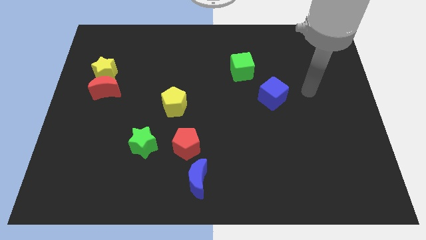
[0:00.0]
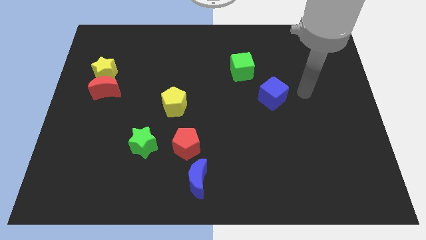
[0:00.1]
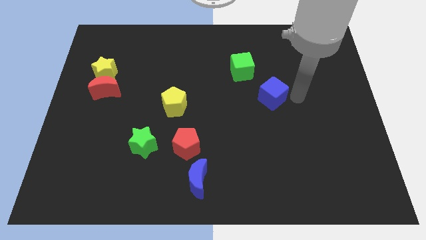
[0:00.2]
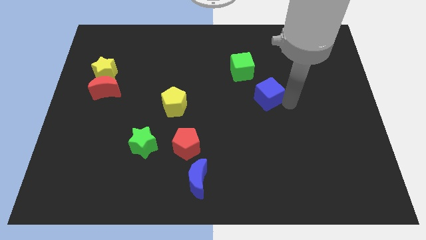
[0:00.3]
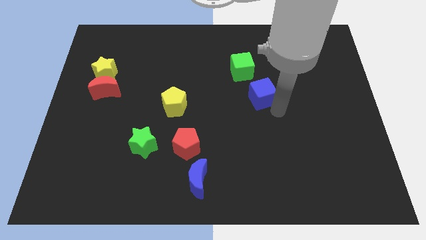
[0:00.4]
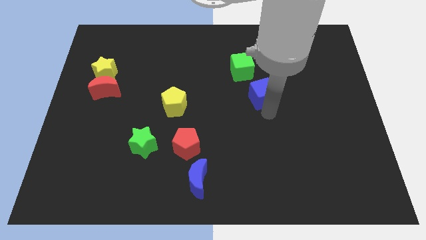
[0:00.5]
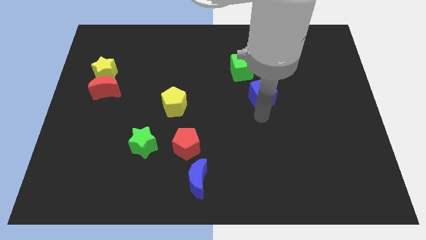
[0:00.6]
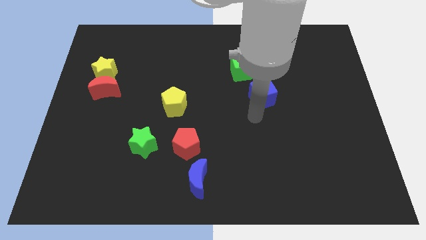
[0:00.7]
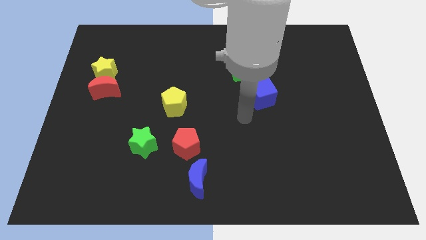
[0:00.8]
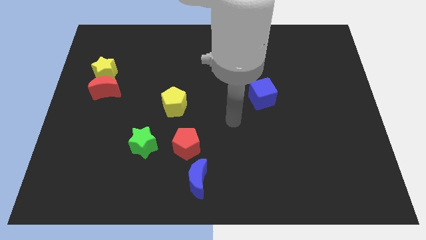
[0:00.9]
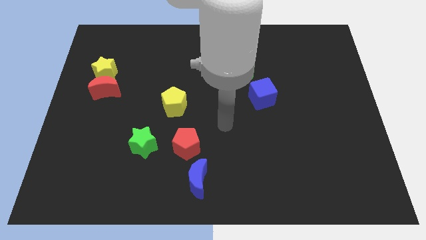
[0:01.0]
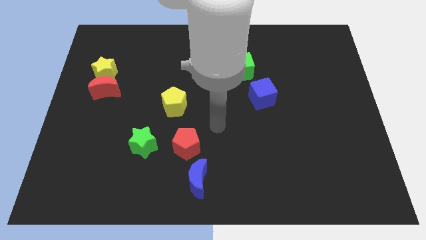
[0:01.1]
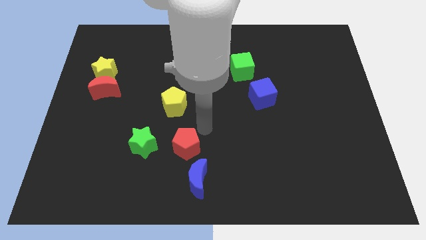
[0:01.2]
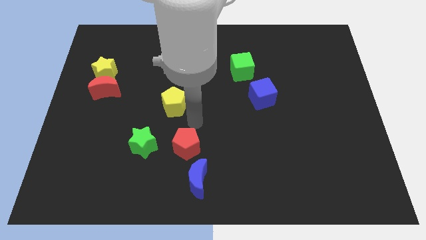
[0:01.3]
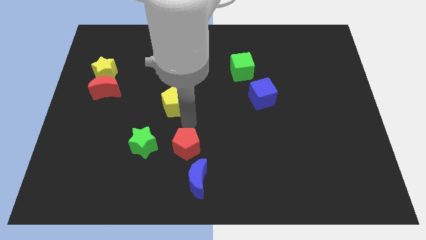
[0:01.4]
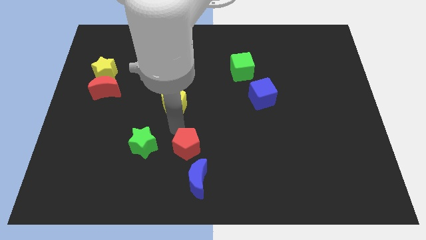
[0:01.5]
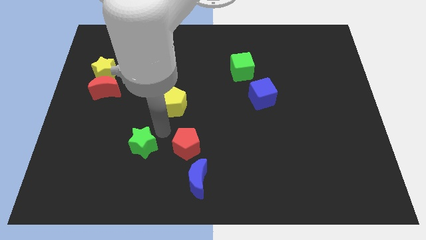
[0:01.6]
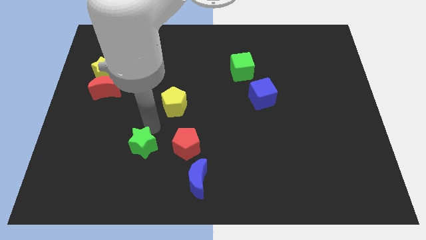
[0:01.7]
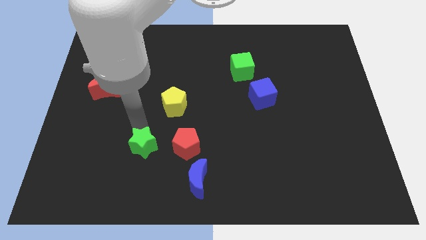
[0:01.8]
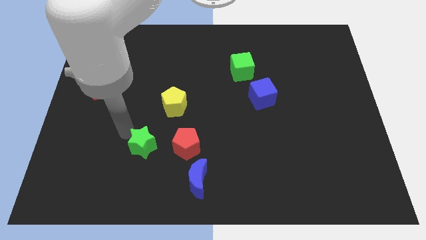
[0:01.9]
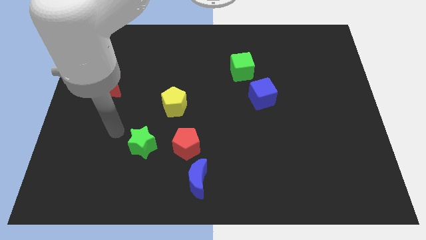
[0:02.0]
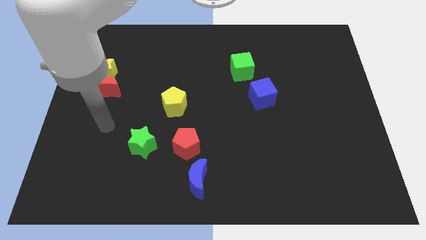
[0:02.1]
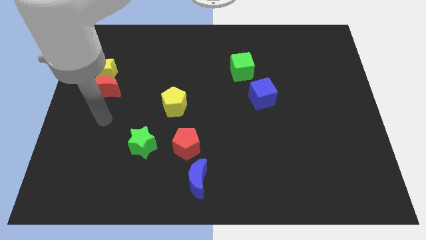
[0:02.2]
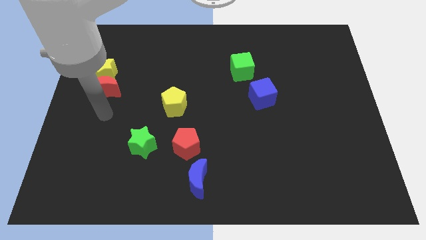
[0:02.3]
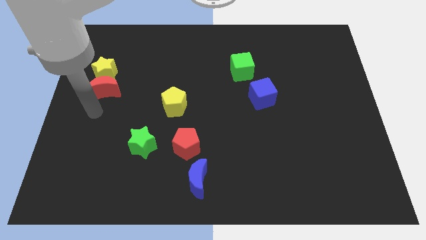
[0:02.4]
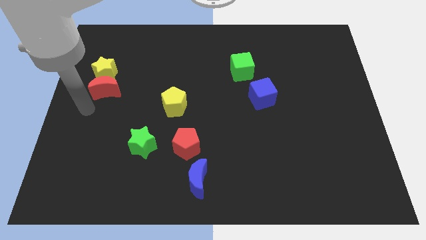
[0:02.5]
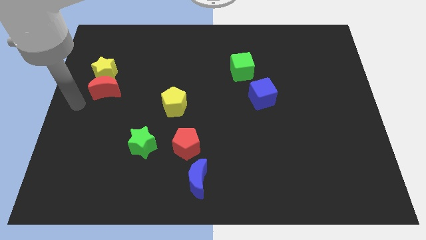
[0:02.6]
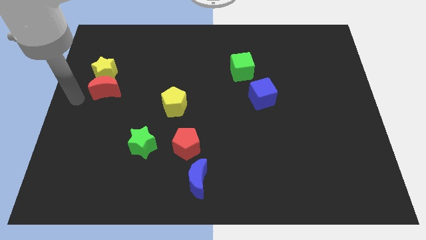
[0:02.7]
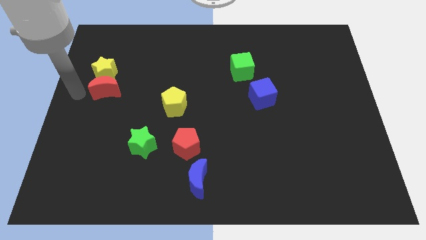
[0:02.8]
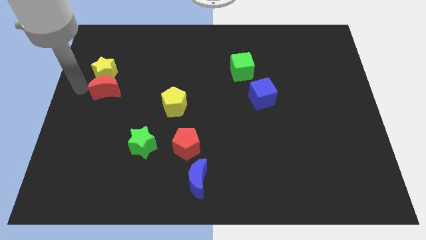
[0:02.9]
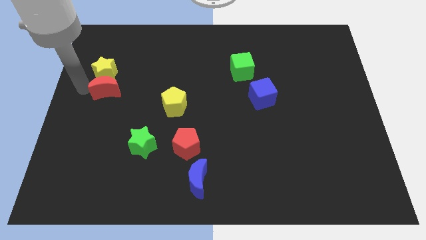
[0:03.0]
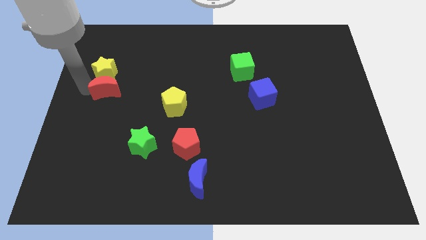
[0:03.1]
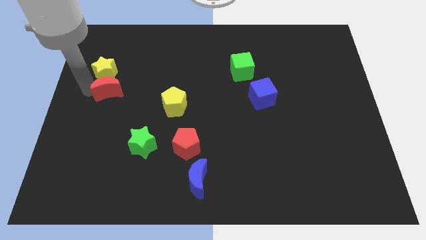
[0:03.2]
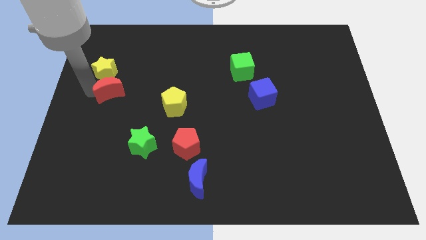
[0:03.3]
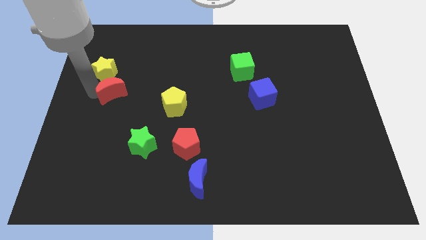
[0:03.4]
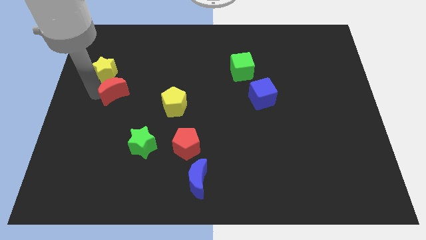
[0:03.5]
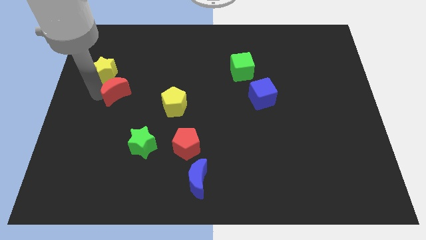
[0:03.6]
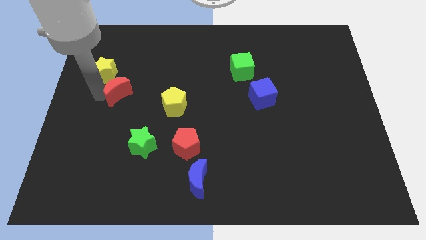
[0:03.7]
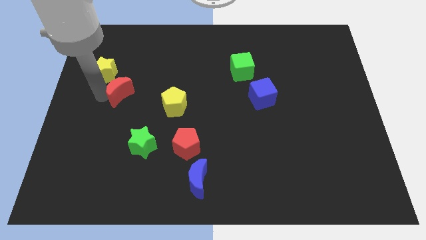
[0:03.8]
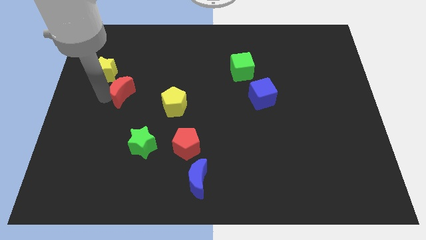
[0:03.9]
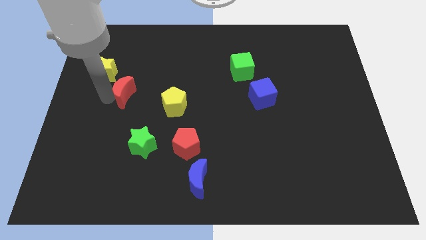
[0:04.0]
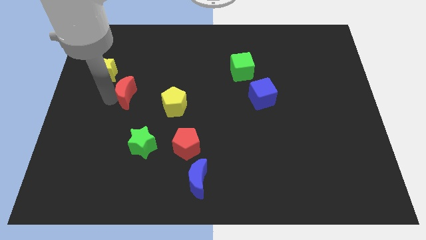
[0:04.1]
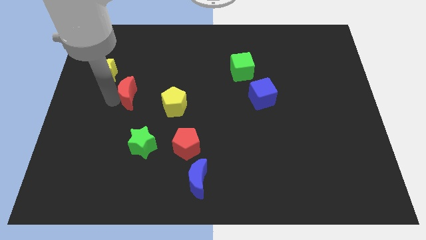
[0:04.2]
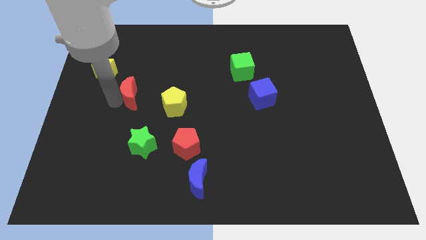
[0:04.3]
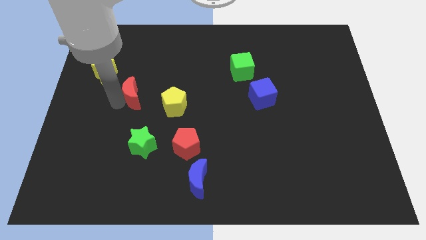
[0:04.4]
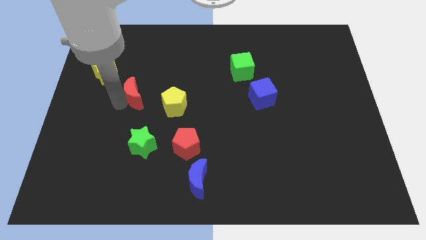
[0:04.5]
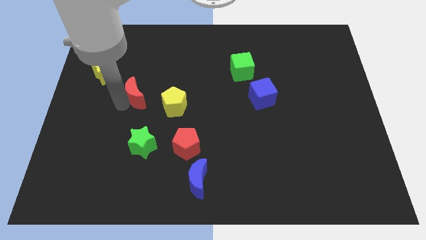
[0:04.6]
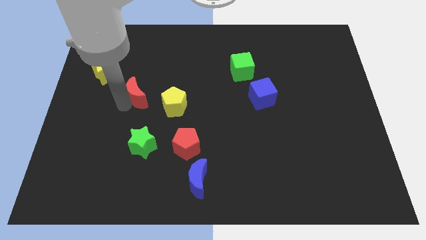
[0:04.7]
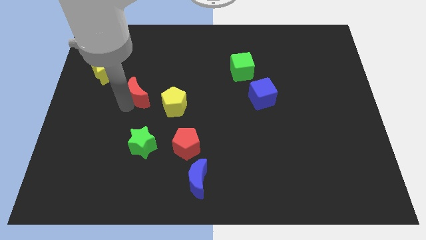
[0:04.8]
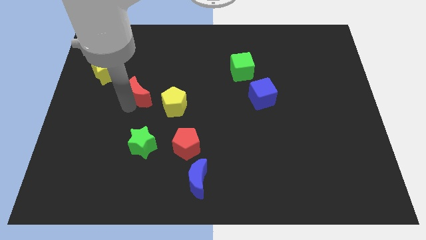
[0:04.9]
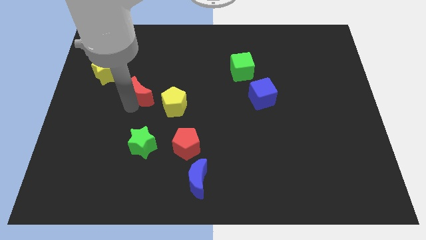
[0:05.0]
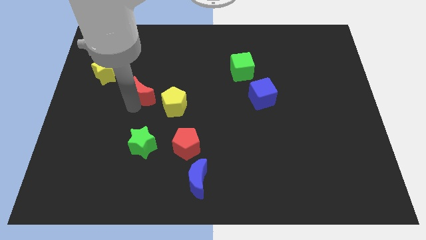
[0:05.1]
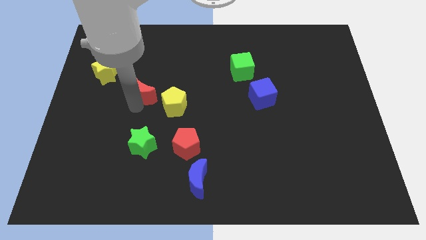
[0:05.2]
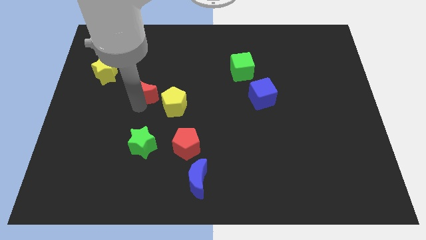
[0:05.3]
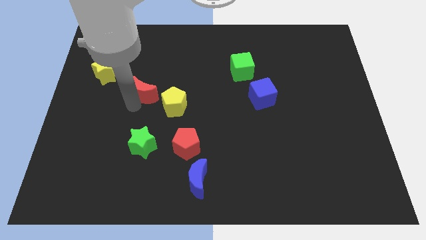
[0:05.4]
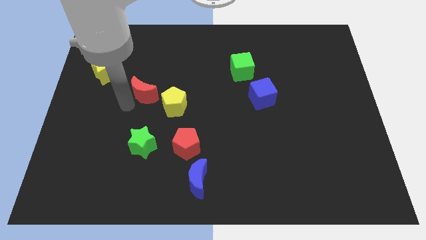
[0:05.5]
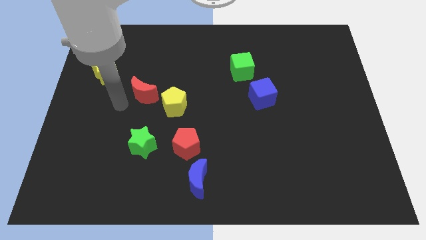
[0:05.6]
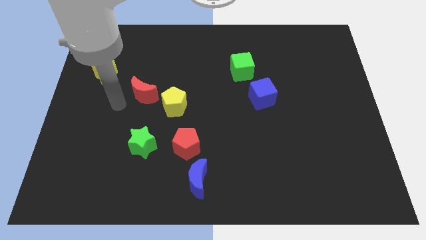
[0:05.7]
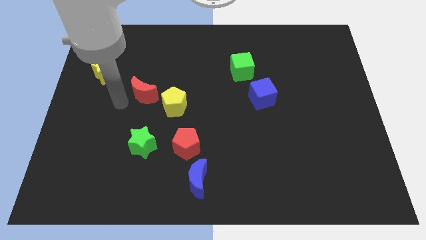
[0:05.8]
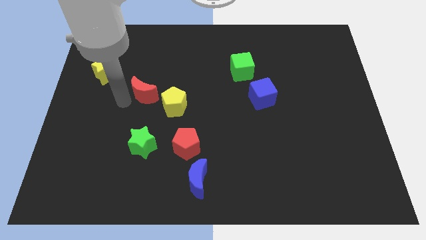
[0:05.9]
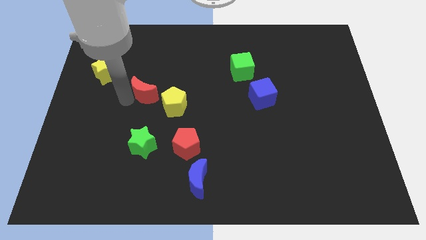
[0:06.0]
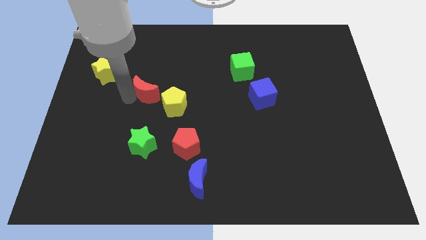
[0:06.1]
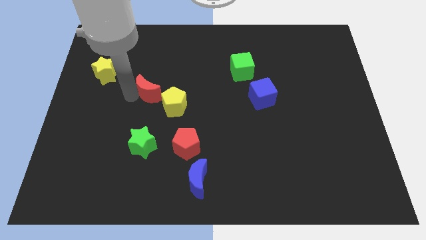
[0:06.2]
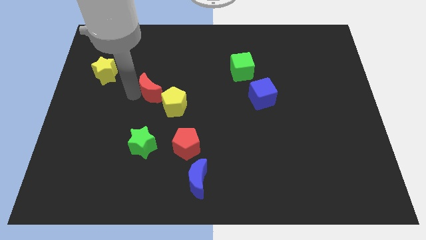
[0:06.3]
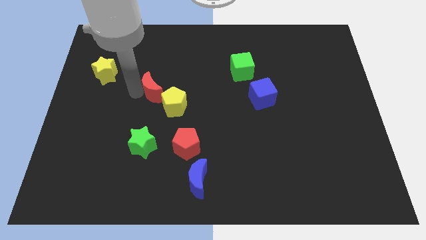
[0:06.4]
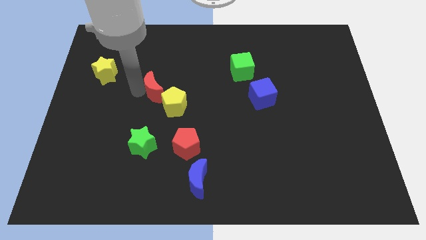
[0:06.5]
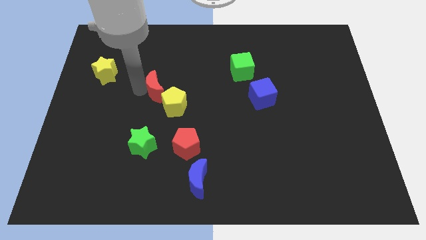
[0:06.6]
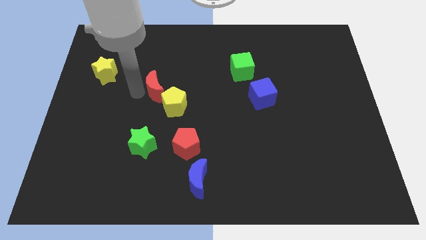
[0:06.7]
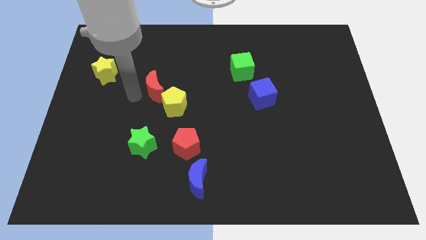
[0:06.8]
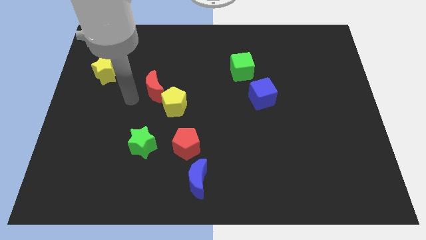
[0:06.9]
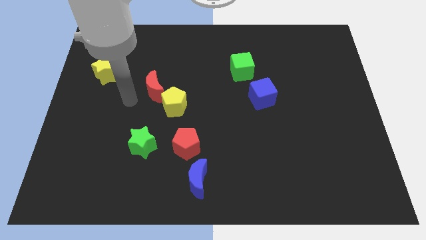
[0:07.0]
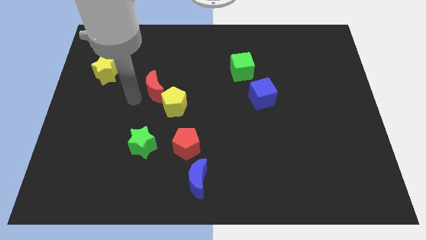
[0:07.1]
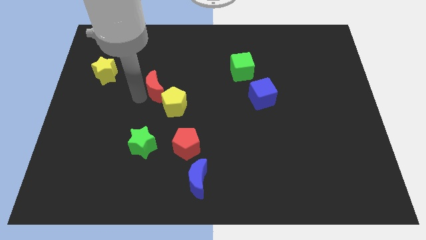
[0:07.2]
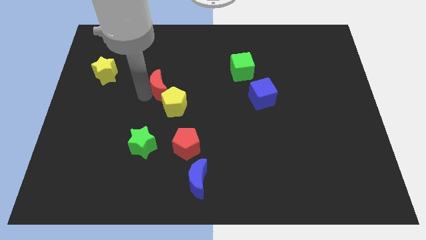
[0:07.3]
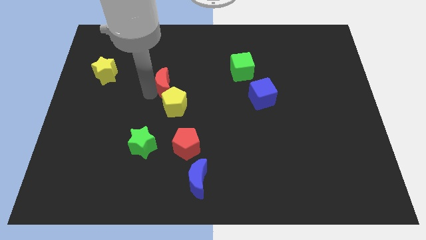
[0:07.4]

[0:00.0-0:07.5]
push the red moon to the middle
